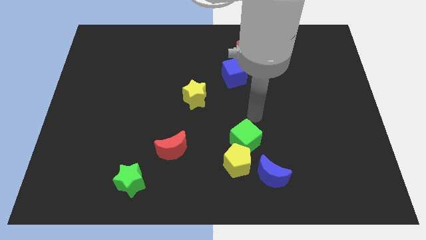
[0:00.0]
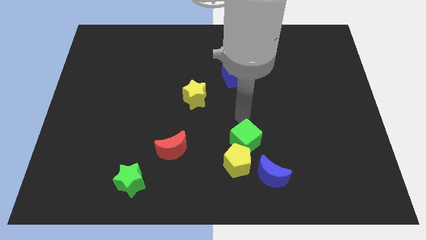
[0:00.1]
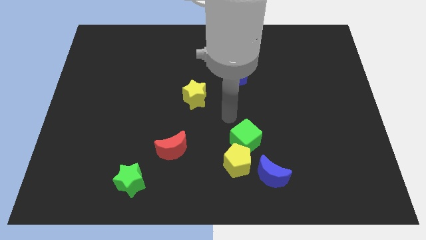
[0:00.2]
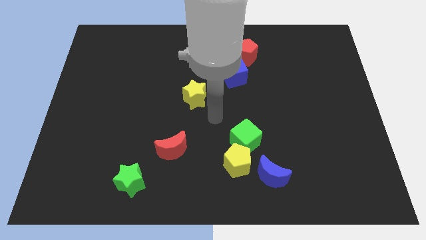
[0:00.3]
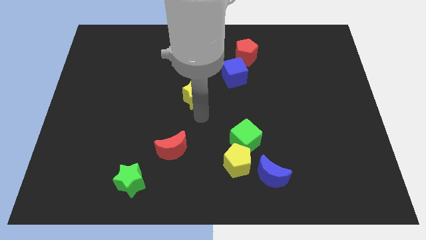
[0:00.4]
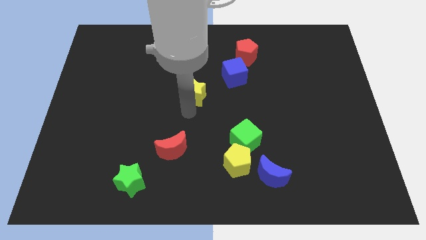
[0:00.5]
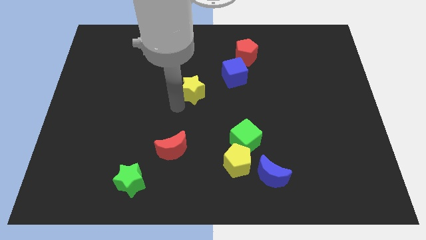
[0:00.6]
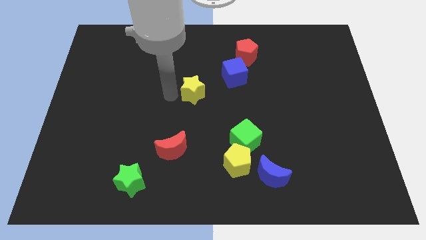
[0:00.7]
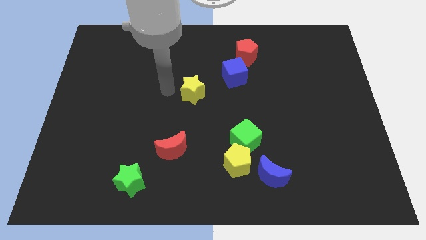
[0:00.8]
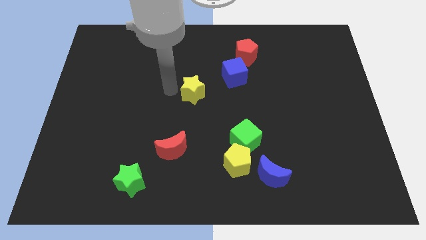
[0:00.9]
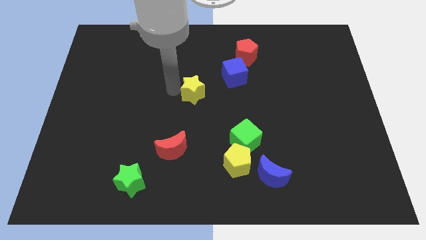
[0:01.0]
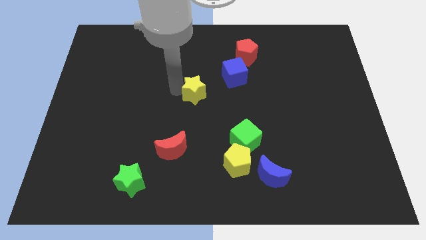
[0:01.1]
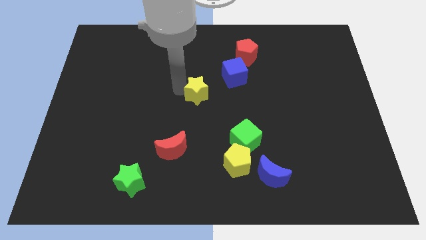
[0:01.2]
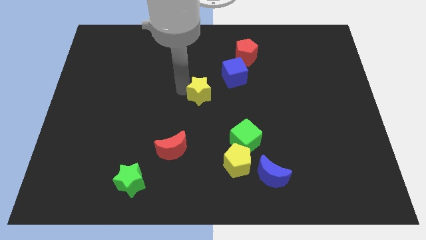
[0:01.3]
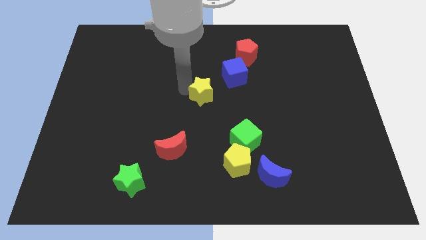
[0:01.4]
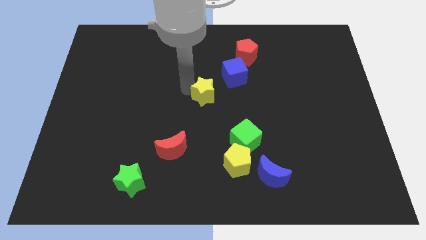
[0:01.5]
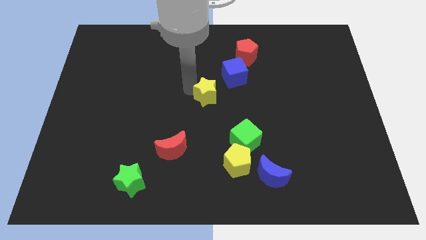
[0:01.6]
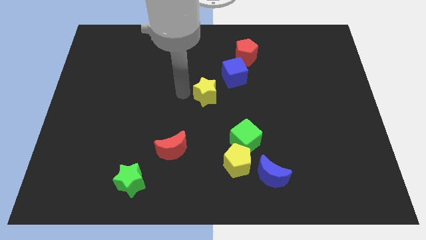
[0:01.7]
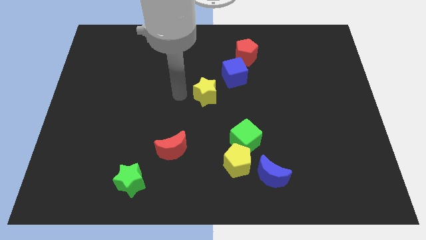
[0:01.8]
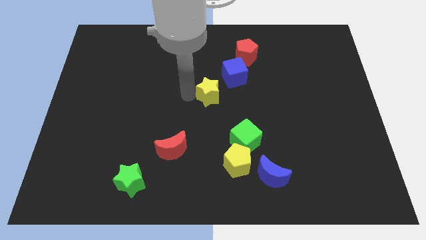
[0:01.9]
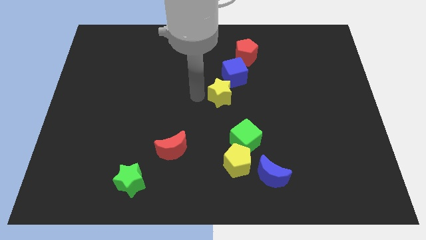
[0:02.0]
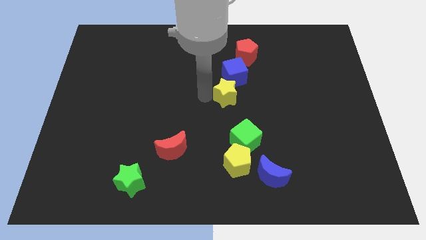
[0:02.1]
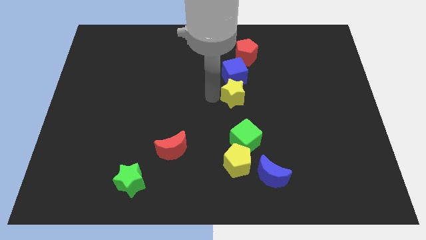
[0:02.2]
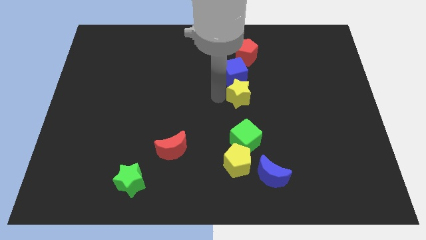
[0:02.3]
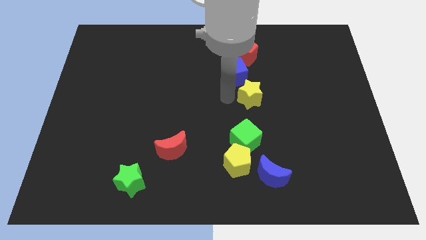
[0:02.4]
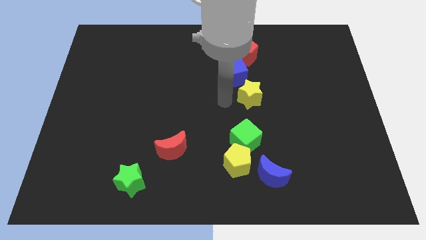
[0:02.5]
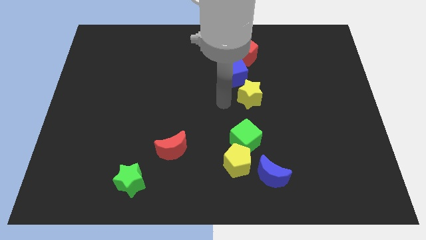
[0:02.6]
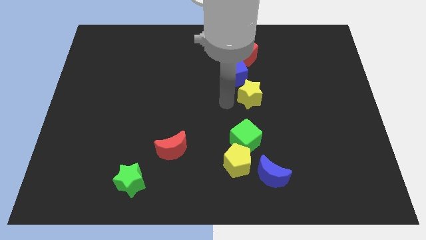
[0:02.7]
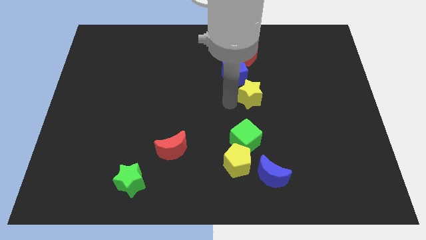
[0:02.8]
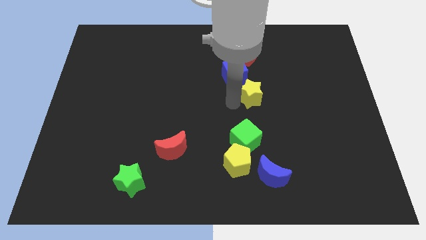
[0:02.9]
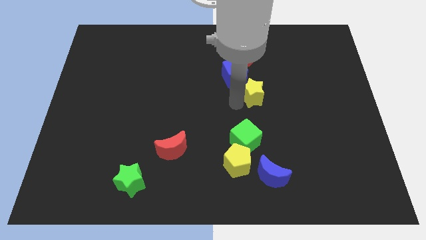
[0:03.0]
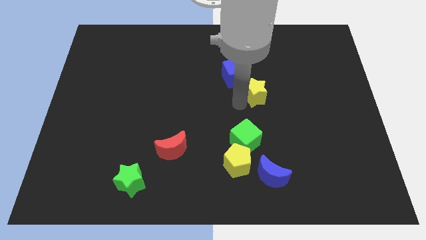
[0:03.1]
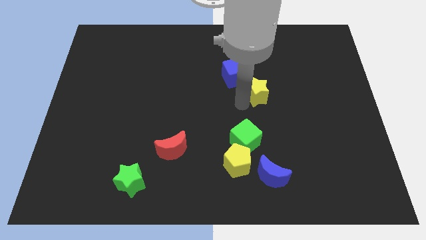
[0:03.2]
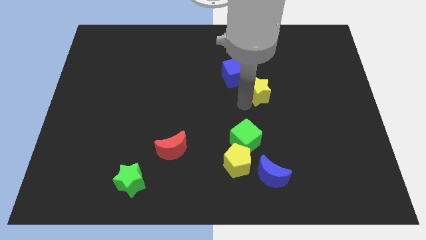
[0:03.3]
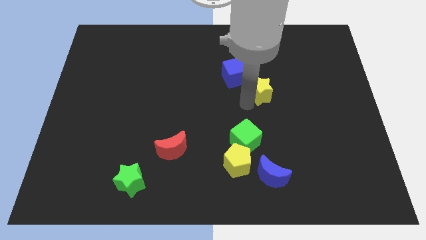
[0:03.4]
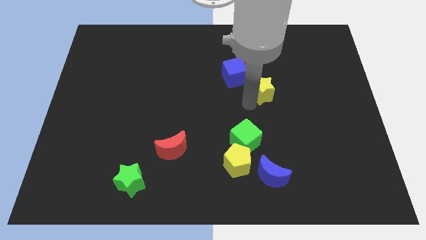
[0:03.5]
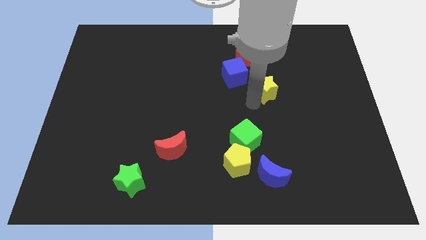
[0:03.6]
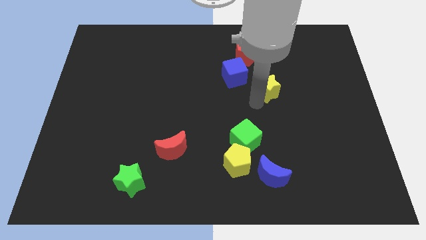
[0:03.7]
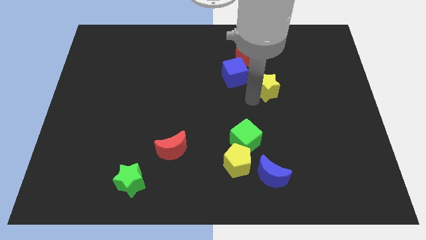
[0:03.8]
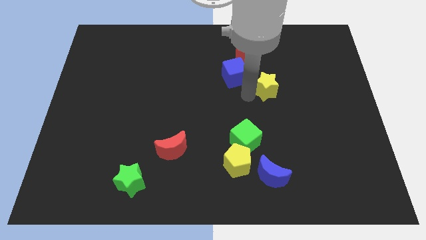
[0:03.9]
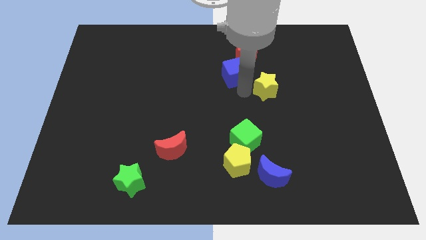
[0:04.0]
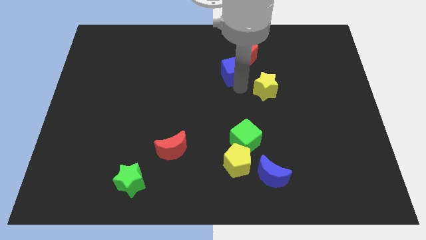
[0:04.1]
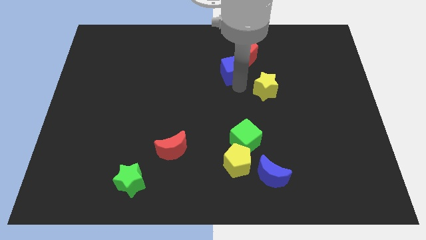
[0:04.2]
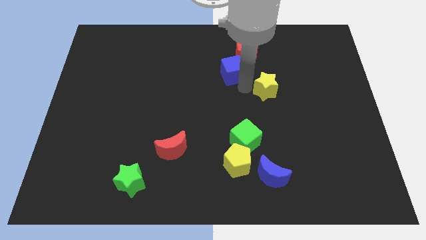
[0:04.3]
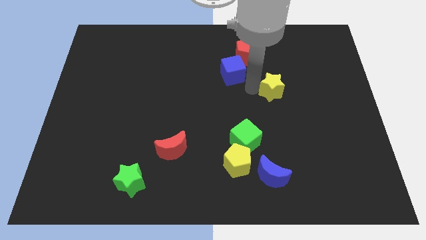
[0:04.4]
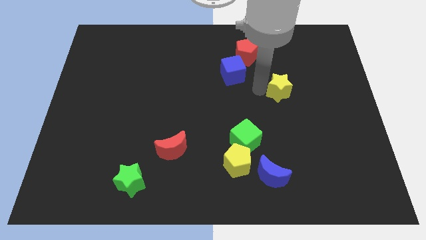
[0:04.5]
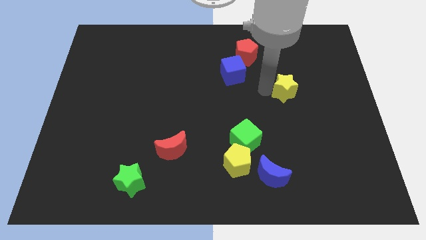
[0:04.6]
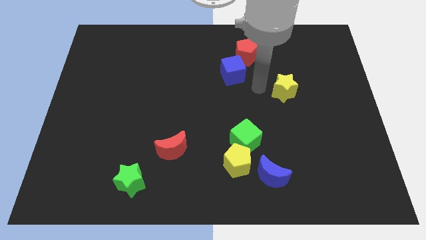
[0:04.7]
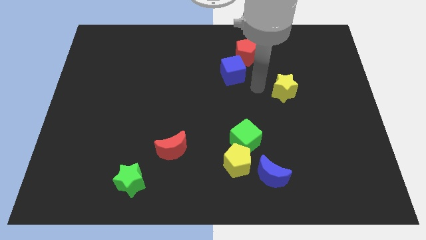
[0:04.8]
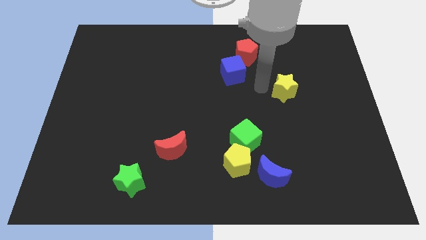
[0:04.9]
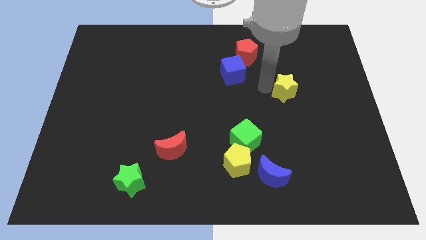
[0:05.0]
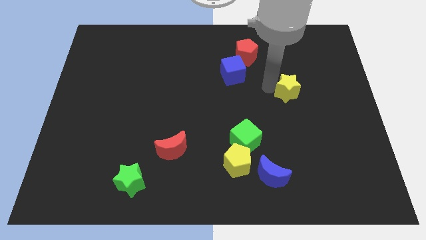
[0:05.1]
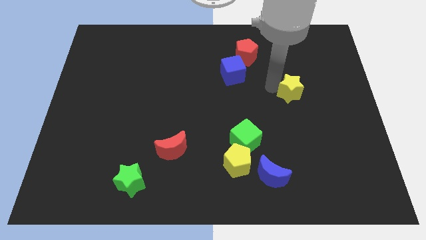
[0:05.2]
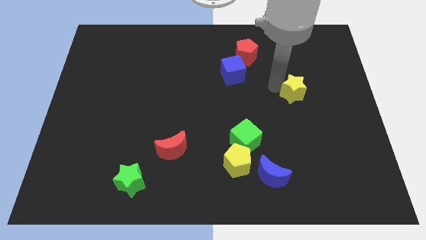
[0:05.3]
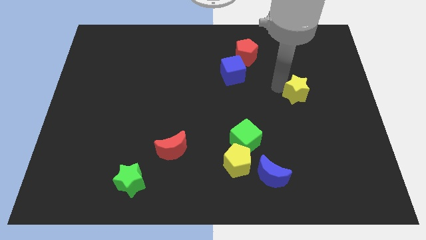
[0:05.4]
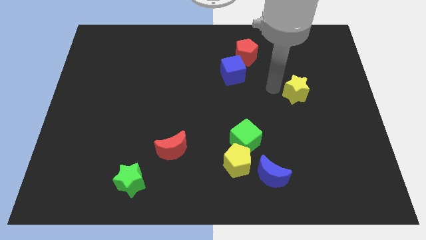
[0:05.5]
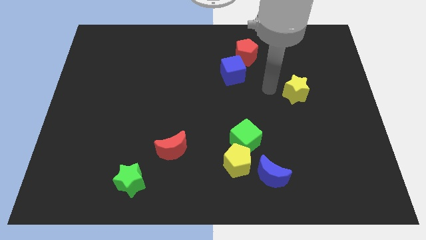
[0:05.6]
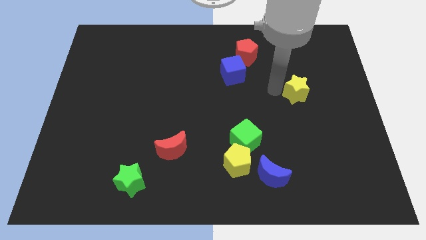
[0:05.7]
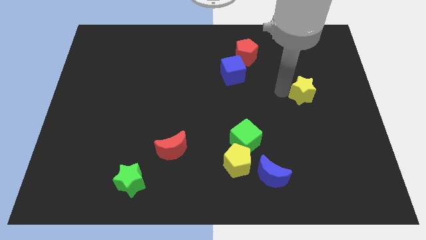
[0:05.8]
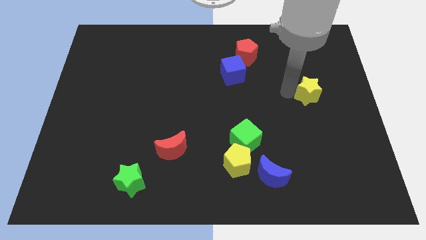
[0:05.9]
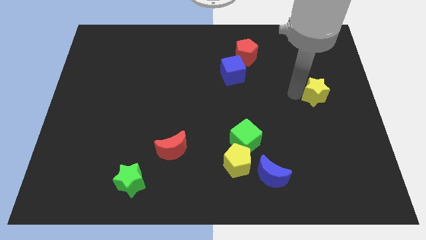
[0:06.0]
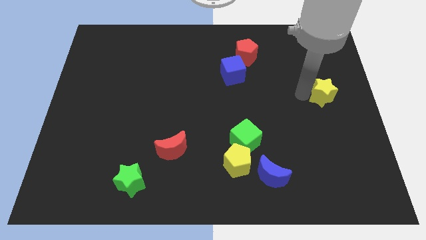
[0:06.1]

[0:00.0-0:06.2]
put the yellow star to the right side of the board
